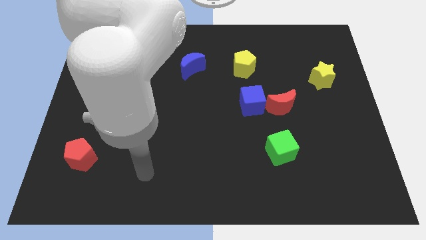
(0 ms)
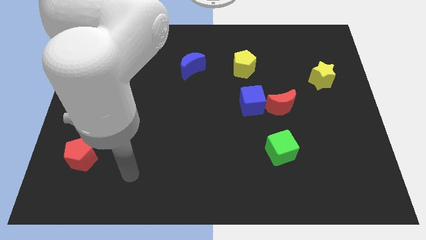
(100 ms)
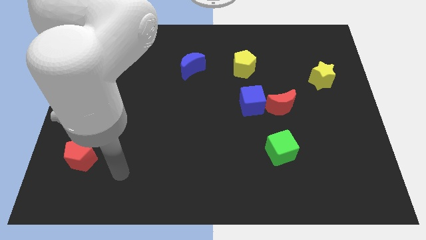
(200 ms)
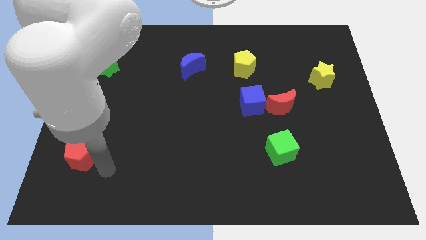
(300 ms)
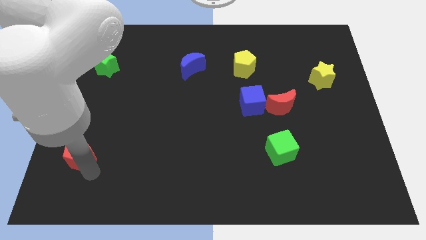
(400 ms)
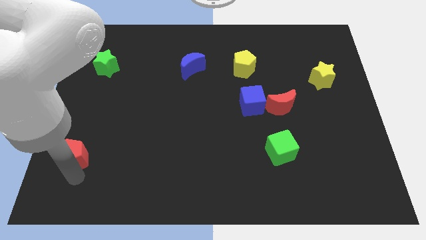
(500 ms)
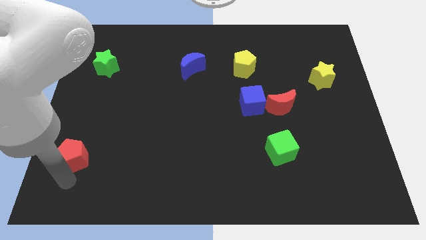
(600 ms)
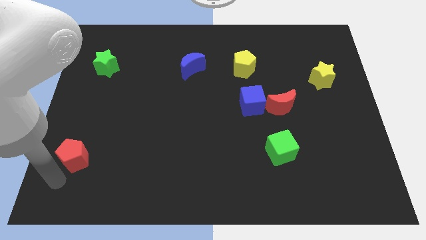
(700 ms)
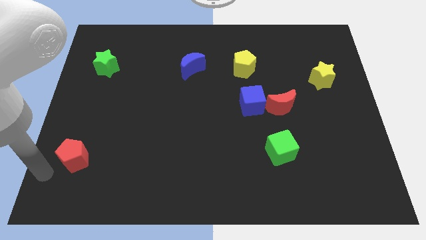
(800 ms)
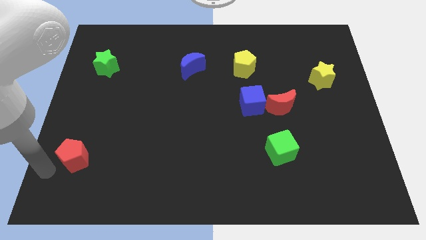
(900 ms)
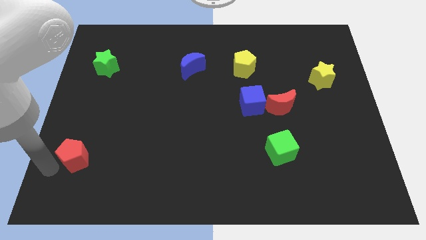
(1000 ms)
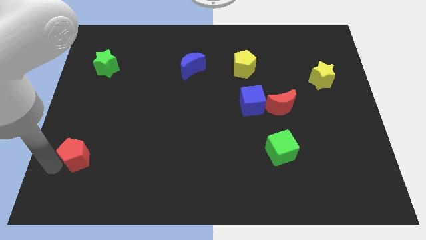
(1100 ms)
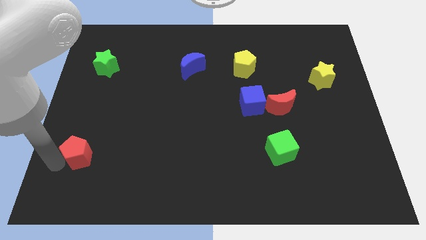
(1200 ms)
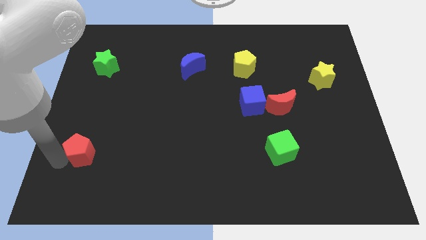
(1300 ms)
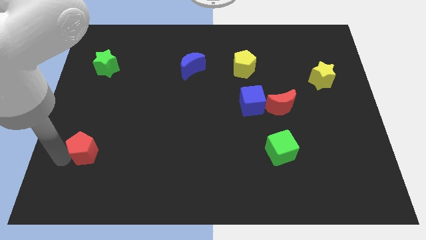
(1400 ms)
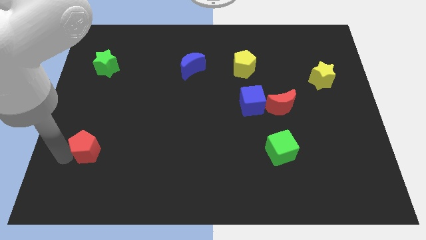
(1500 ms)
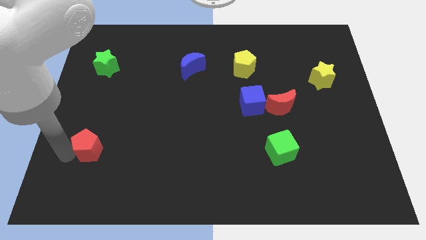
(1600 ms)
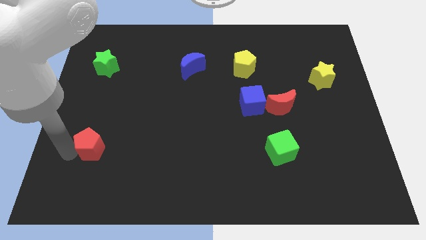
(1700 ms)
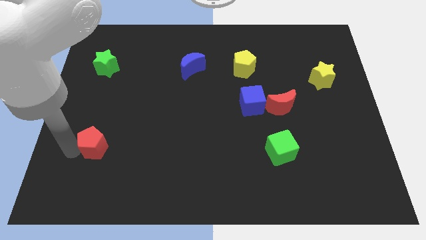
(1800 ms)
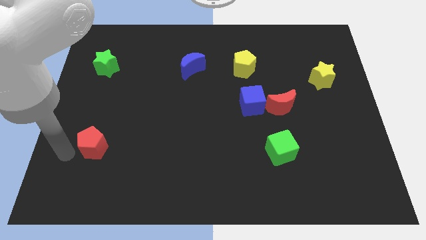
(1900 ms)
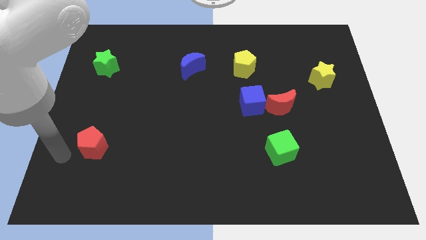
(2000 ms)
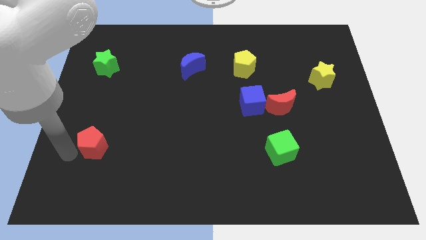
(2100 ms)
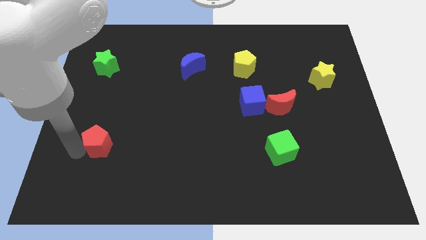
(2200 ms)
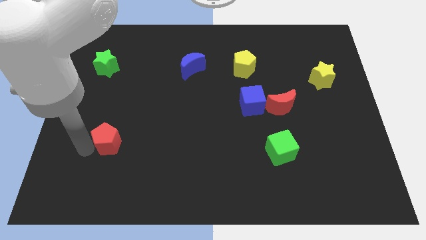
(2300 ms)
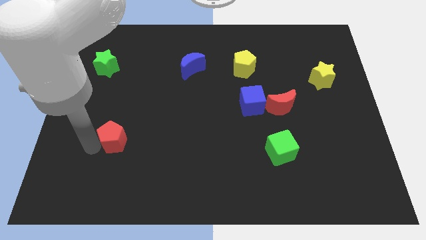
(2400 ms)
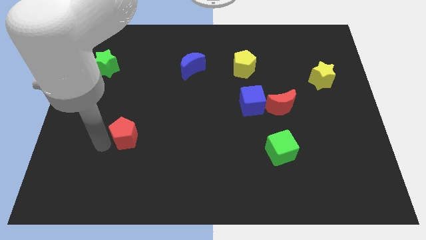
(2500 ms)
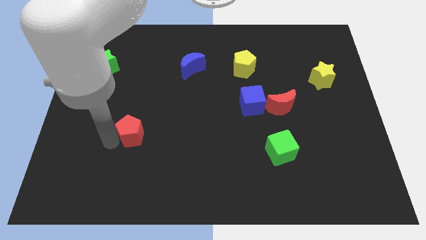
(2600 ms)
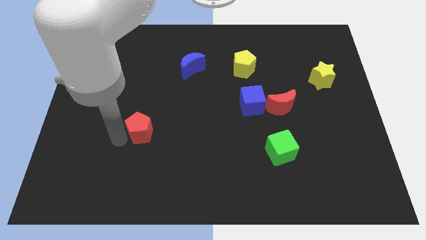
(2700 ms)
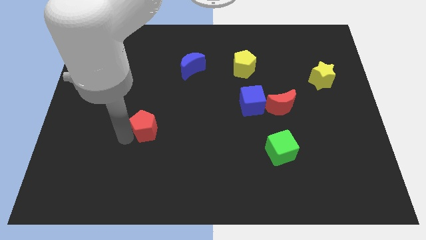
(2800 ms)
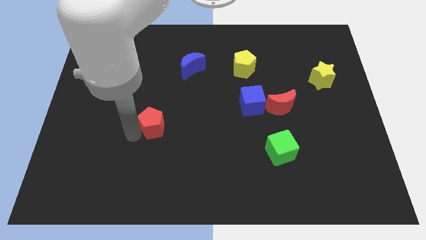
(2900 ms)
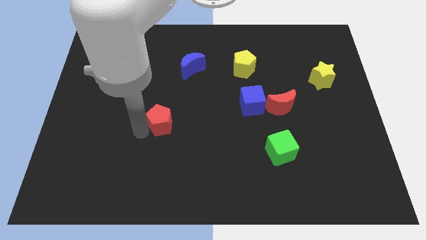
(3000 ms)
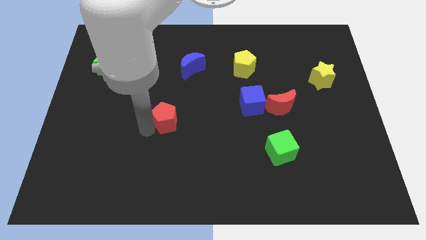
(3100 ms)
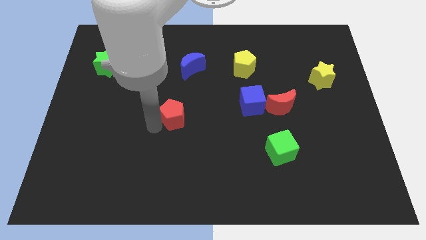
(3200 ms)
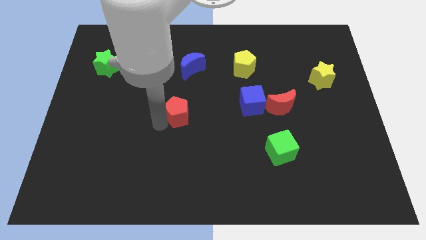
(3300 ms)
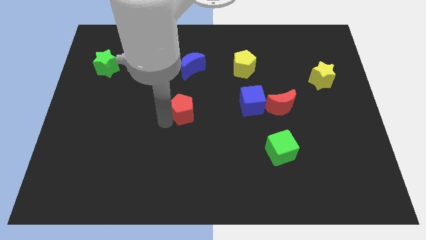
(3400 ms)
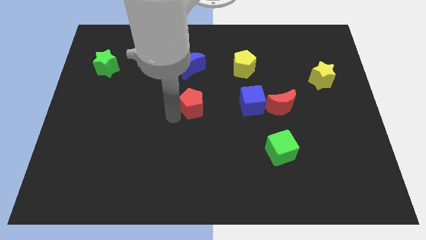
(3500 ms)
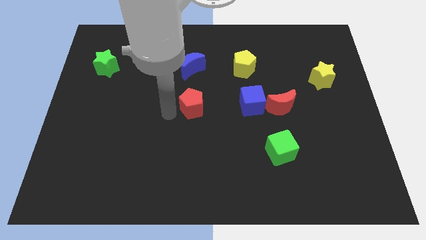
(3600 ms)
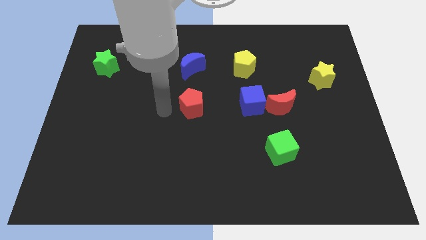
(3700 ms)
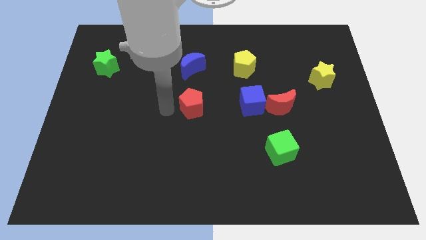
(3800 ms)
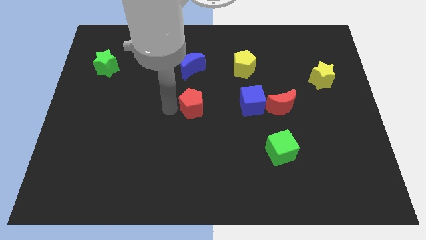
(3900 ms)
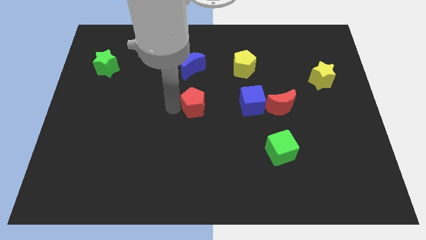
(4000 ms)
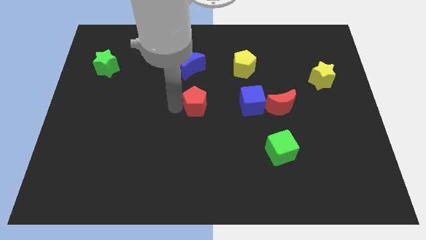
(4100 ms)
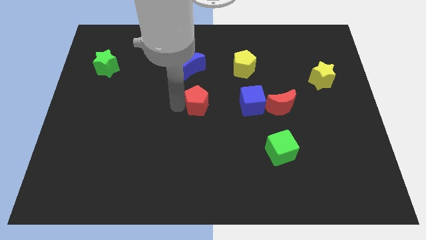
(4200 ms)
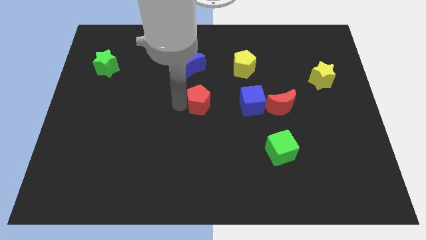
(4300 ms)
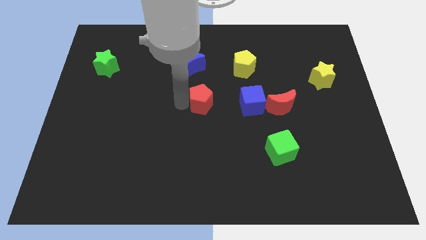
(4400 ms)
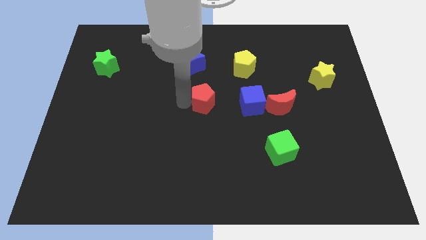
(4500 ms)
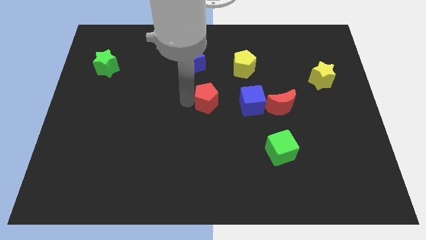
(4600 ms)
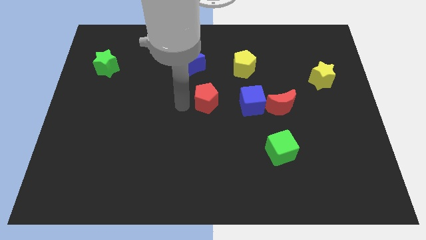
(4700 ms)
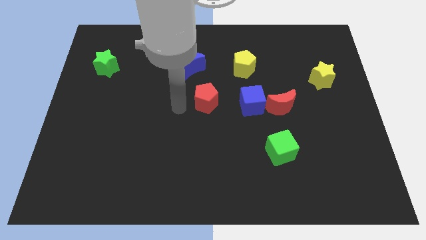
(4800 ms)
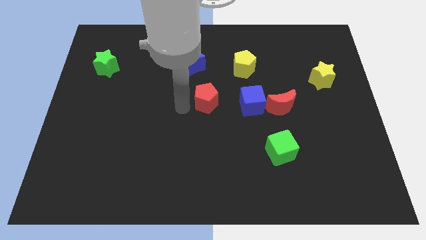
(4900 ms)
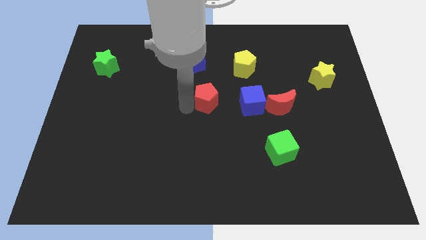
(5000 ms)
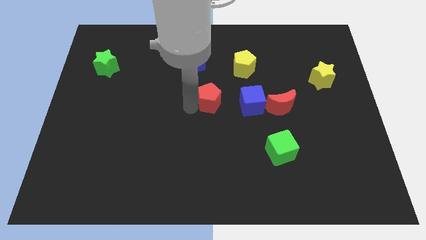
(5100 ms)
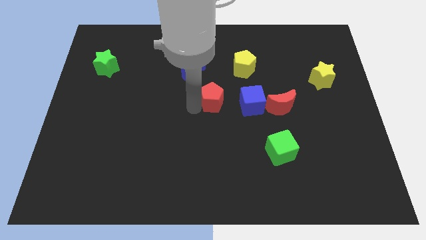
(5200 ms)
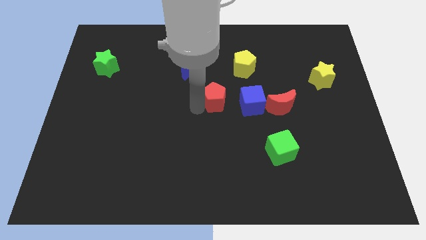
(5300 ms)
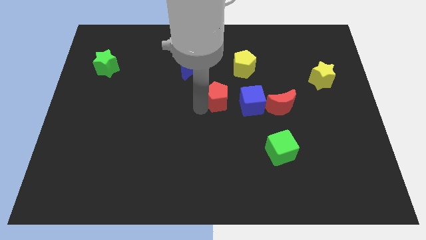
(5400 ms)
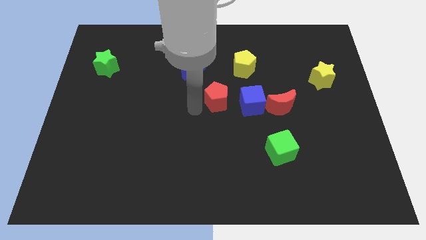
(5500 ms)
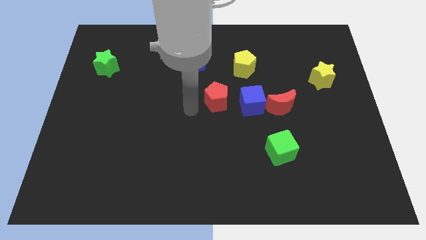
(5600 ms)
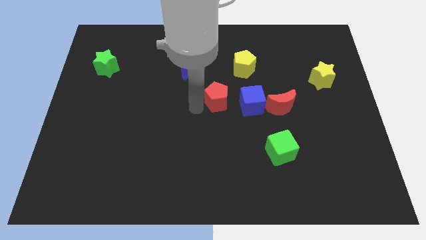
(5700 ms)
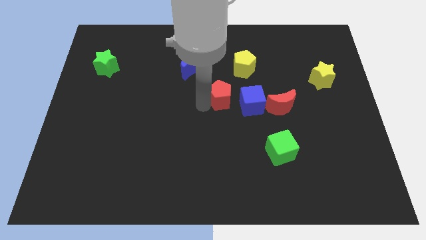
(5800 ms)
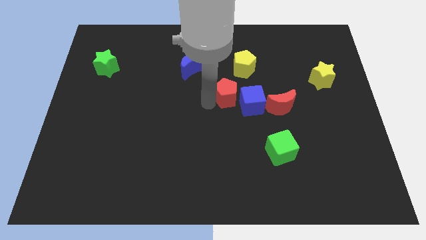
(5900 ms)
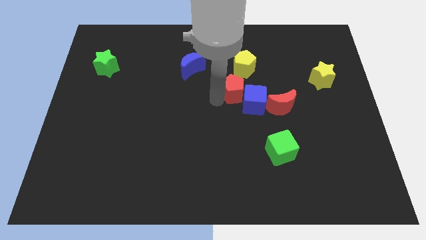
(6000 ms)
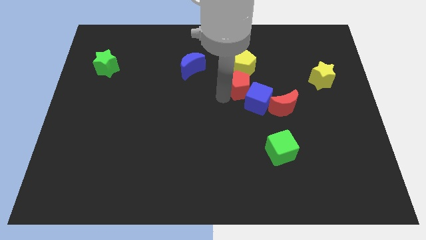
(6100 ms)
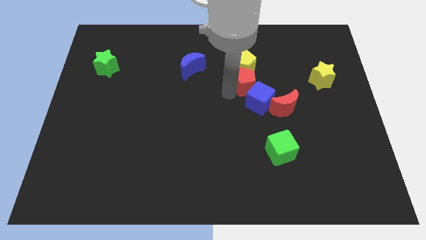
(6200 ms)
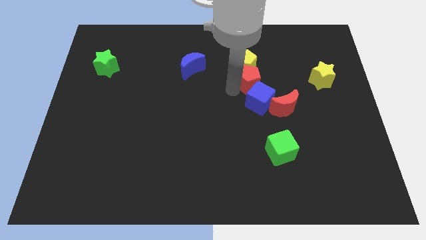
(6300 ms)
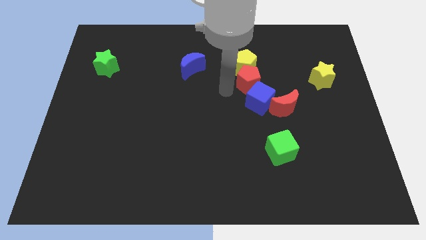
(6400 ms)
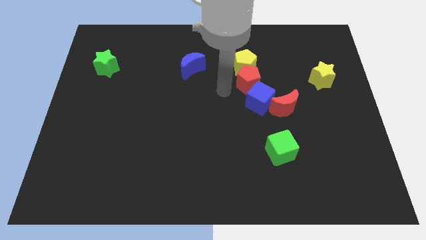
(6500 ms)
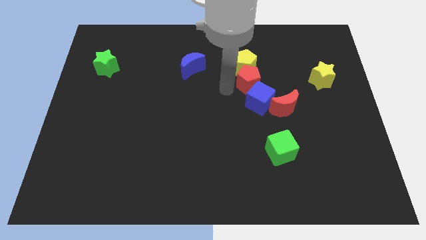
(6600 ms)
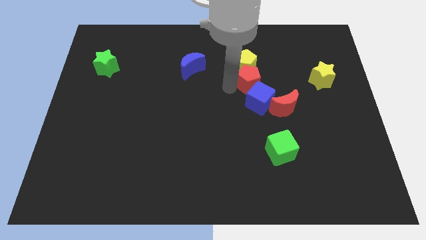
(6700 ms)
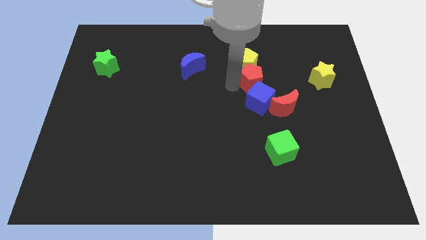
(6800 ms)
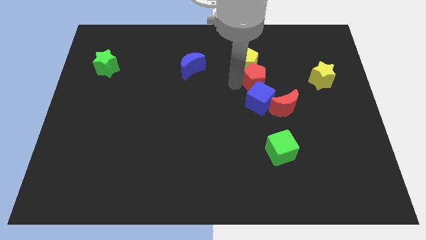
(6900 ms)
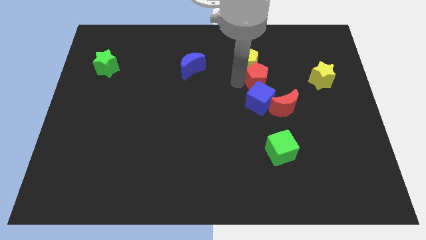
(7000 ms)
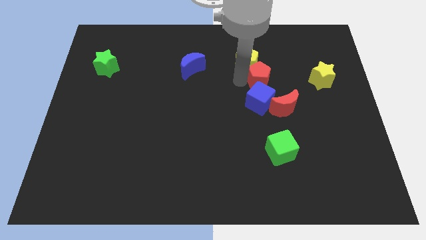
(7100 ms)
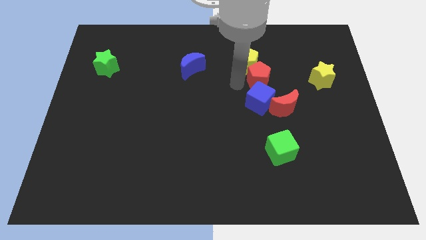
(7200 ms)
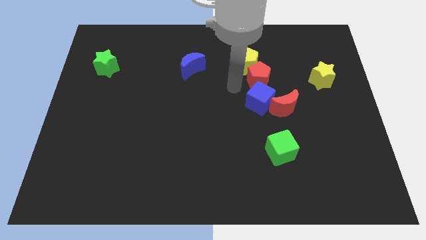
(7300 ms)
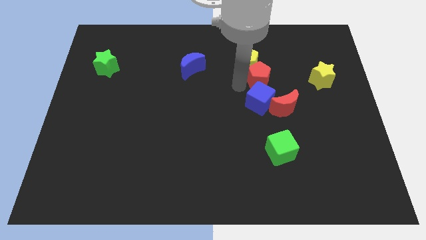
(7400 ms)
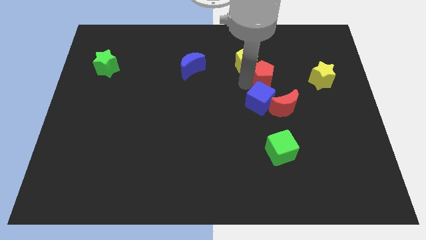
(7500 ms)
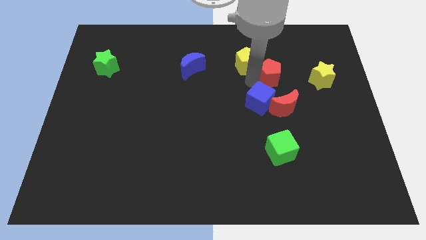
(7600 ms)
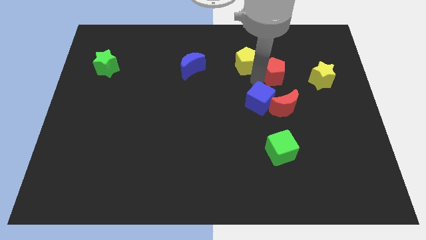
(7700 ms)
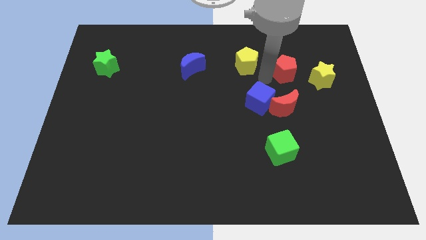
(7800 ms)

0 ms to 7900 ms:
move the red pentagon to the top left of the yellow star
